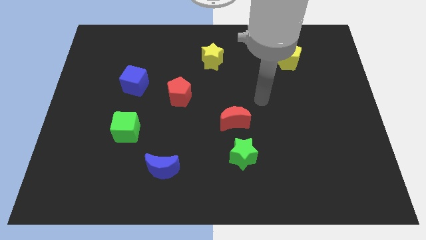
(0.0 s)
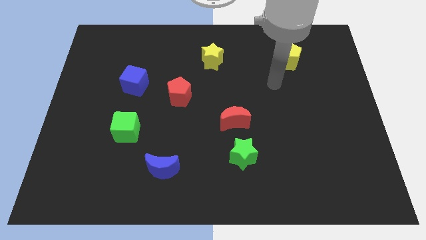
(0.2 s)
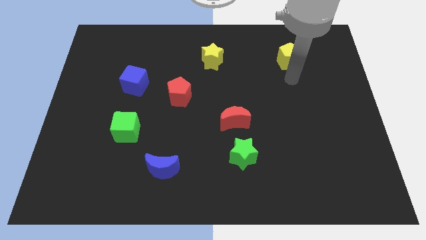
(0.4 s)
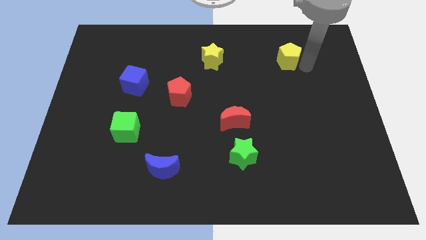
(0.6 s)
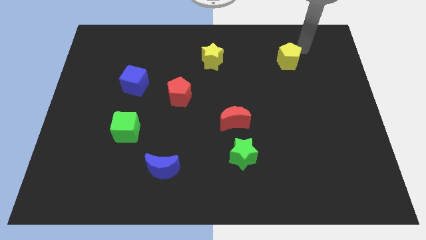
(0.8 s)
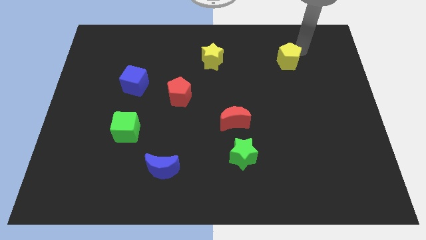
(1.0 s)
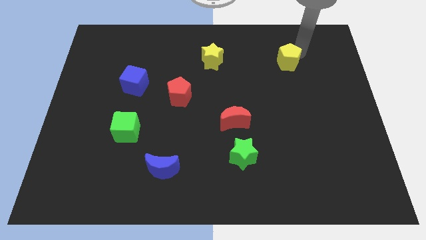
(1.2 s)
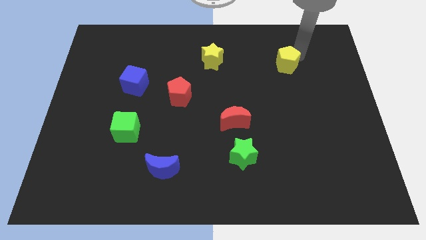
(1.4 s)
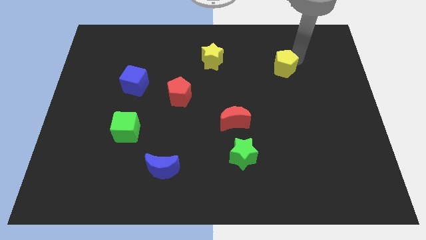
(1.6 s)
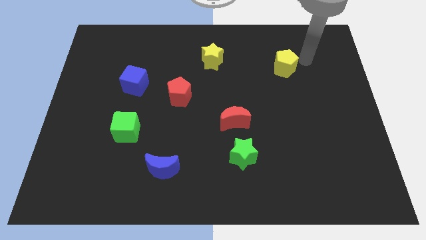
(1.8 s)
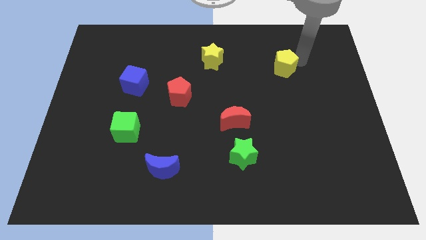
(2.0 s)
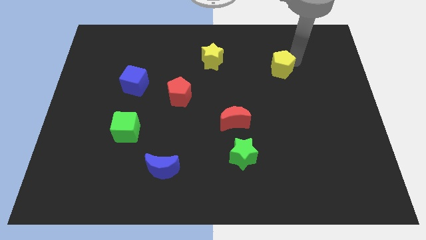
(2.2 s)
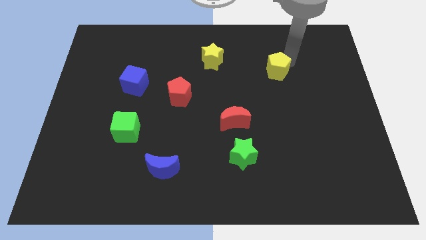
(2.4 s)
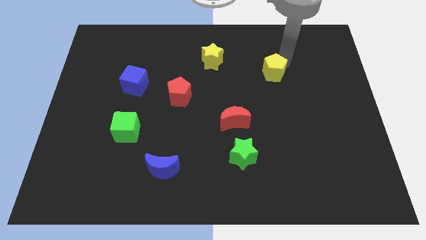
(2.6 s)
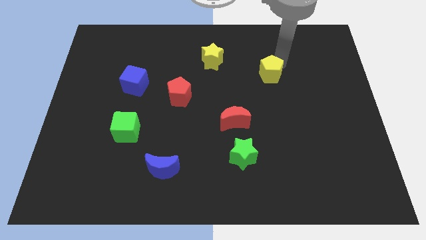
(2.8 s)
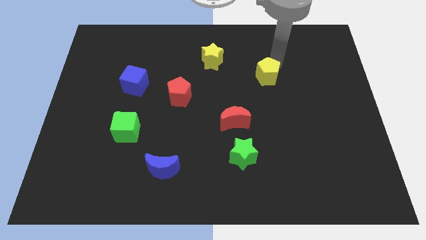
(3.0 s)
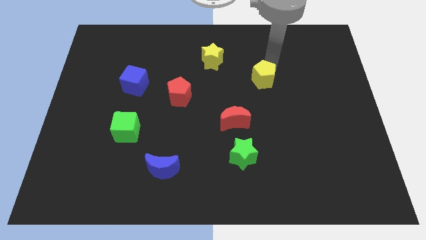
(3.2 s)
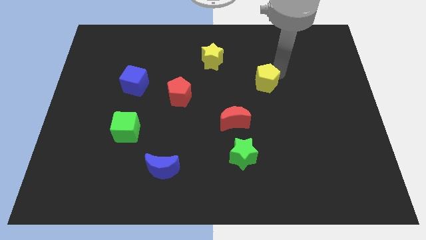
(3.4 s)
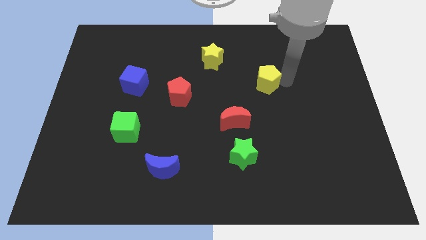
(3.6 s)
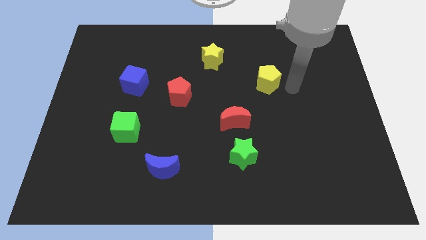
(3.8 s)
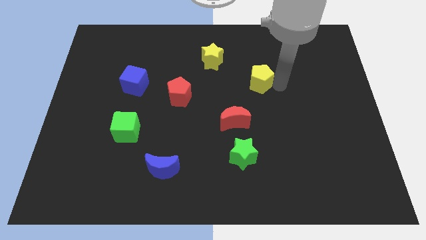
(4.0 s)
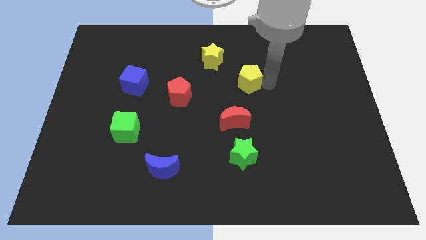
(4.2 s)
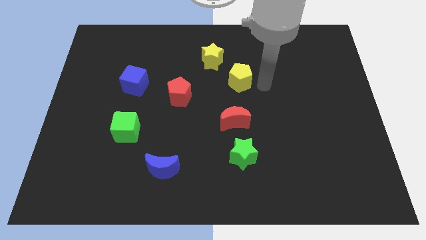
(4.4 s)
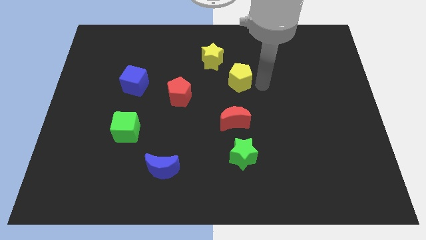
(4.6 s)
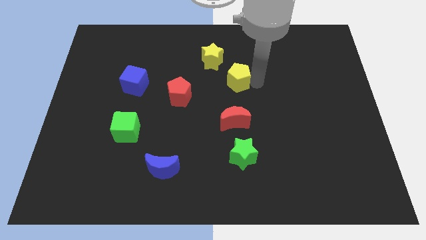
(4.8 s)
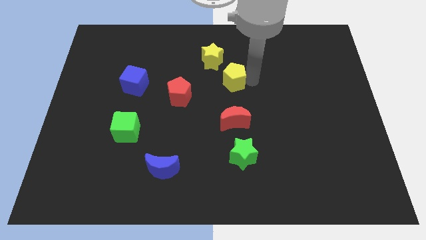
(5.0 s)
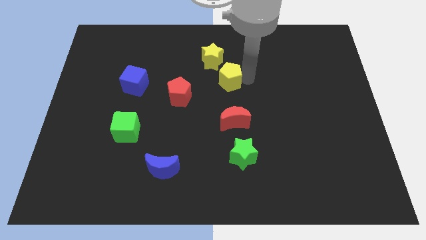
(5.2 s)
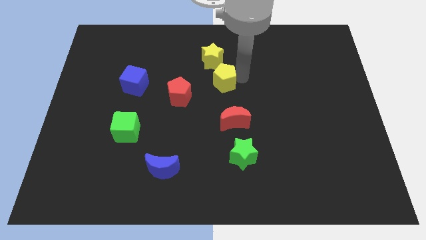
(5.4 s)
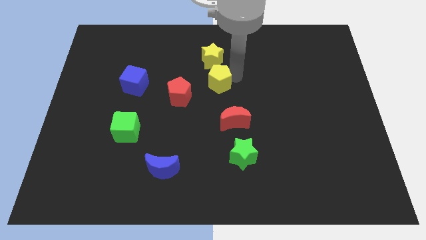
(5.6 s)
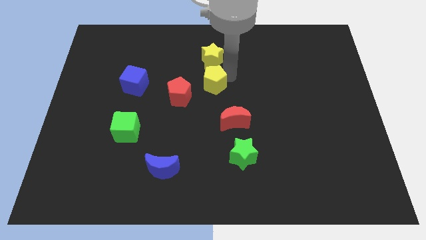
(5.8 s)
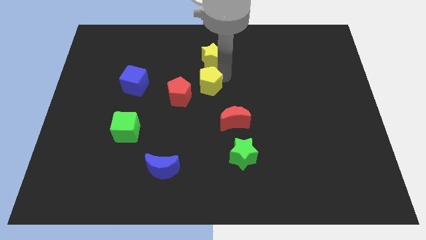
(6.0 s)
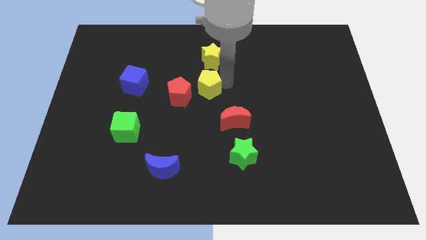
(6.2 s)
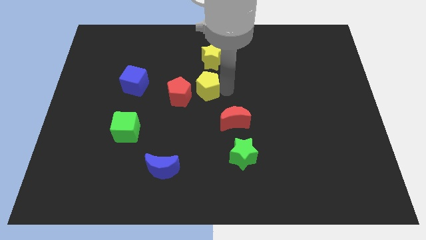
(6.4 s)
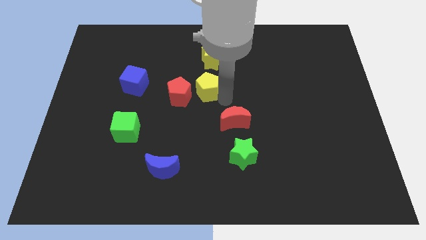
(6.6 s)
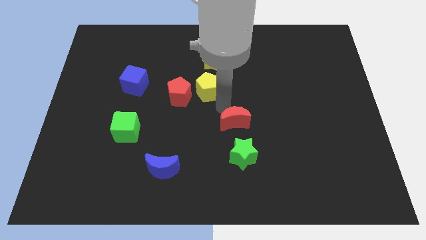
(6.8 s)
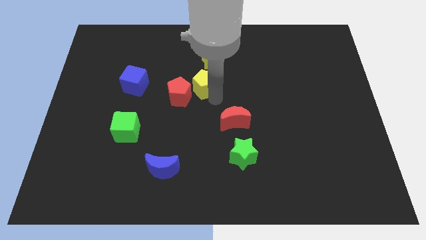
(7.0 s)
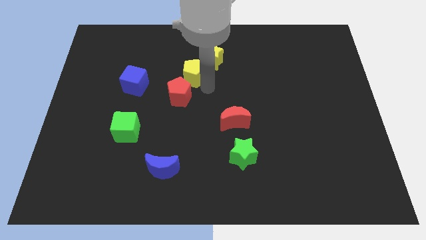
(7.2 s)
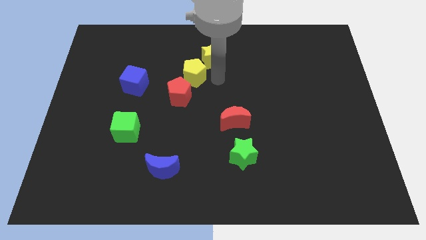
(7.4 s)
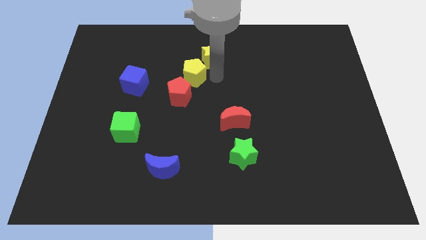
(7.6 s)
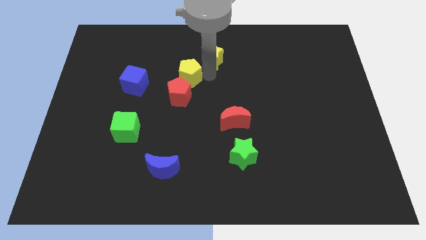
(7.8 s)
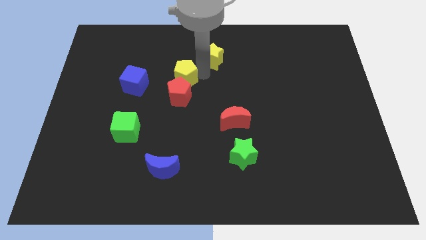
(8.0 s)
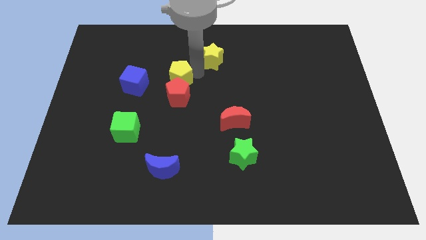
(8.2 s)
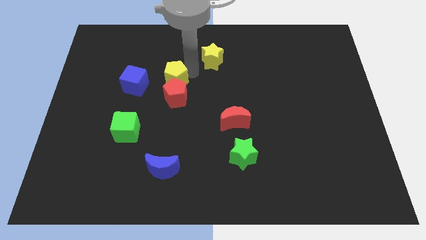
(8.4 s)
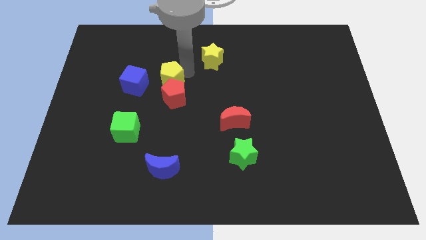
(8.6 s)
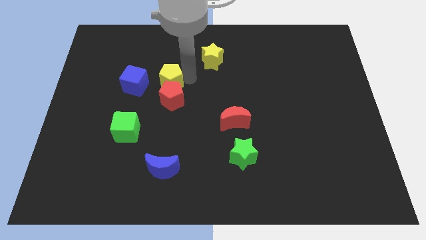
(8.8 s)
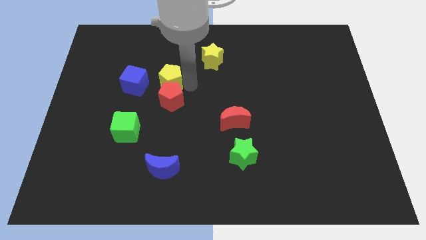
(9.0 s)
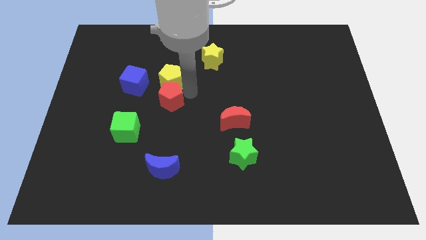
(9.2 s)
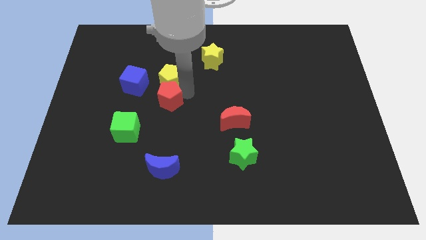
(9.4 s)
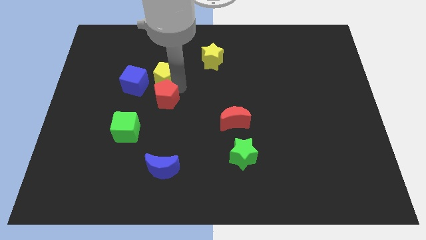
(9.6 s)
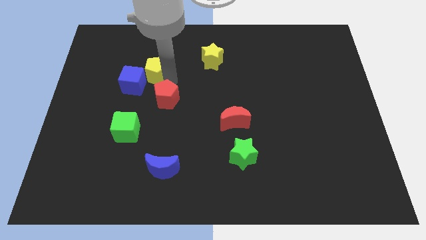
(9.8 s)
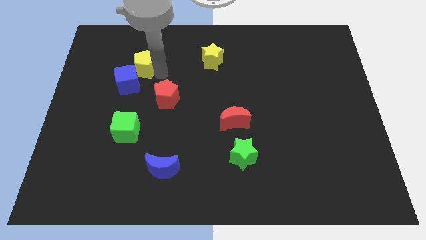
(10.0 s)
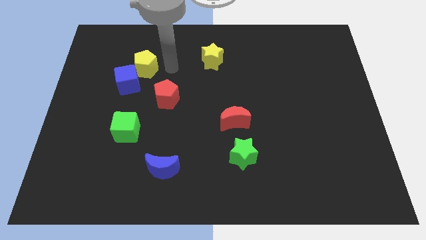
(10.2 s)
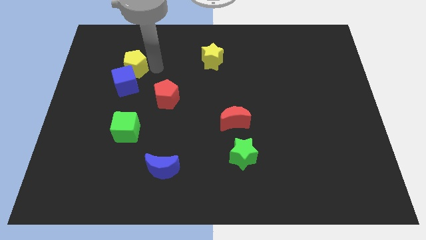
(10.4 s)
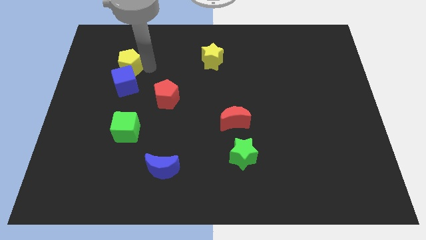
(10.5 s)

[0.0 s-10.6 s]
put the yellow pentagon to the top left side of the blue cube

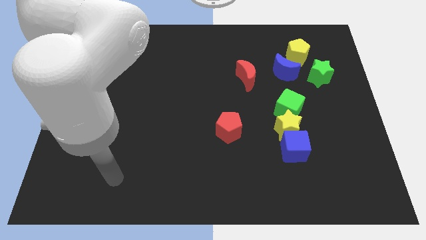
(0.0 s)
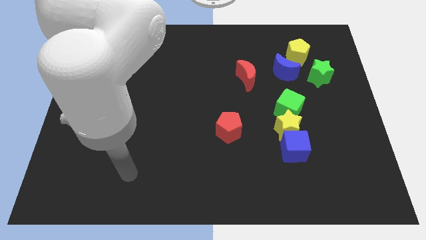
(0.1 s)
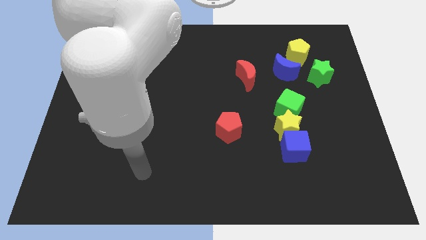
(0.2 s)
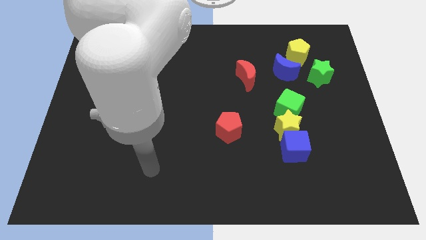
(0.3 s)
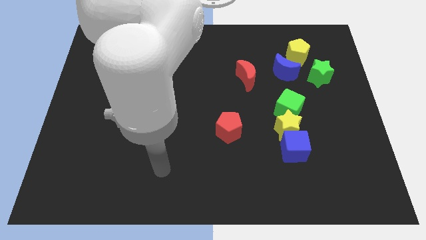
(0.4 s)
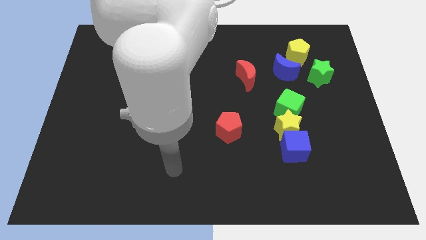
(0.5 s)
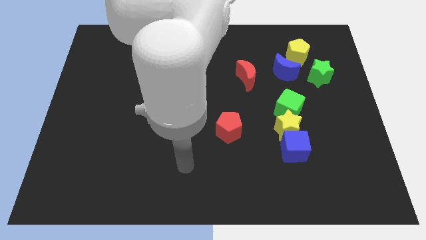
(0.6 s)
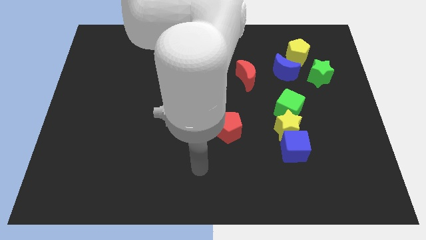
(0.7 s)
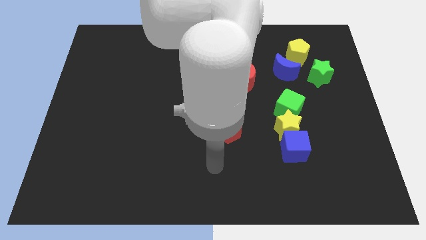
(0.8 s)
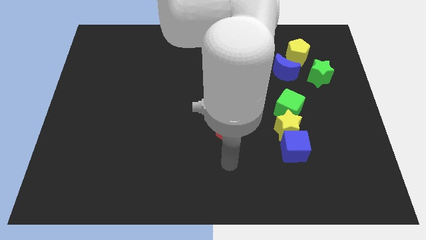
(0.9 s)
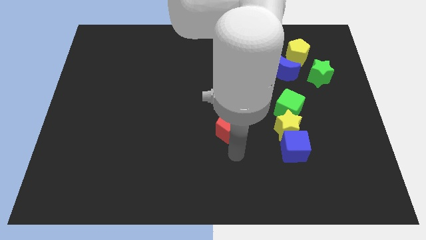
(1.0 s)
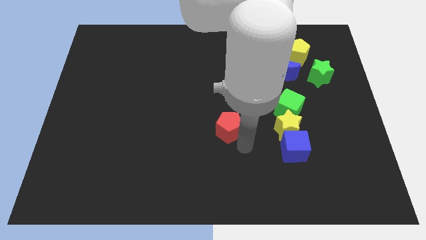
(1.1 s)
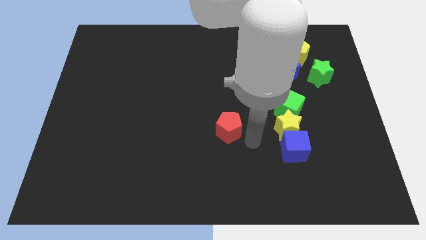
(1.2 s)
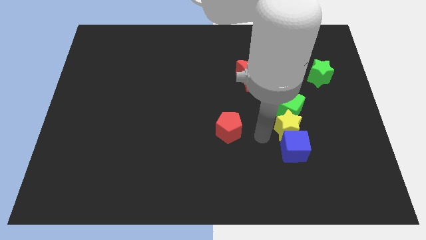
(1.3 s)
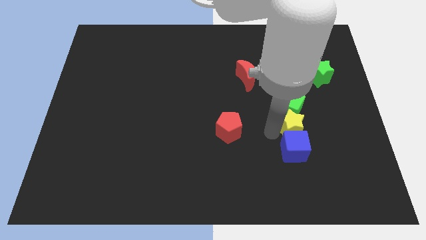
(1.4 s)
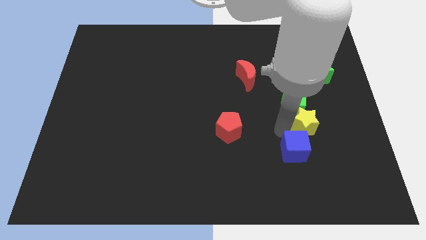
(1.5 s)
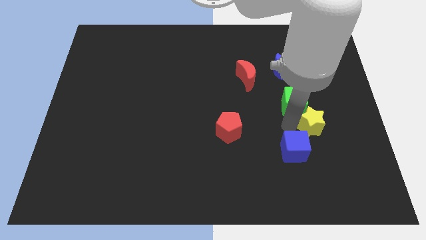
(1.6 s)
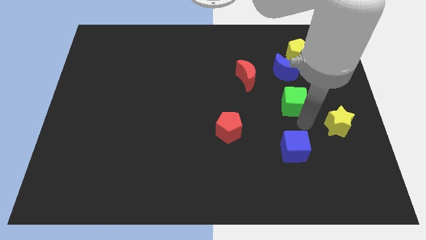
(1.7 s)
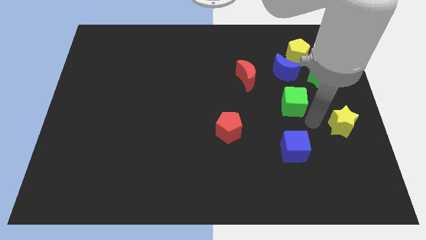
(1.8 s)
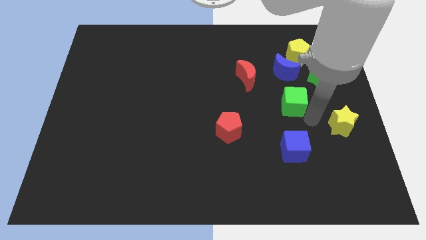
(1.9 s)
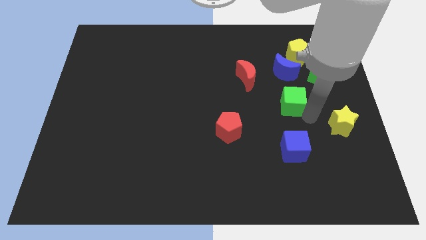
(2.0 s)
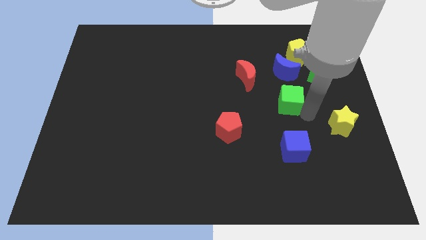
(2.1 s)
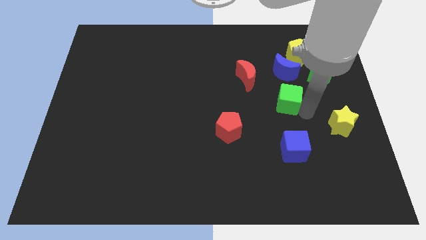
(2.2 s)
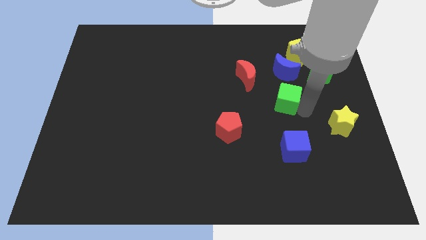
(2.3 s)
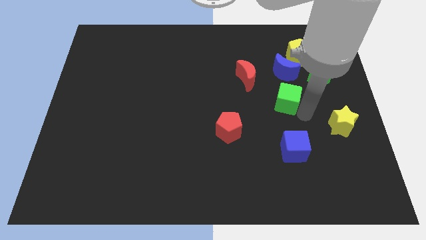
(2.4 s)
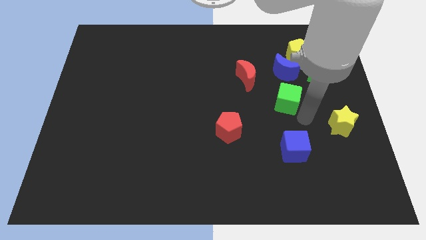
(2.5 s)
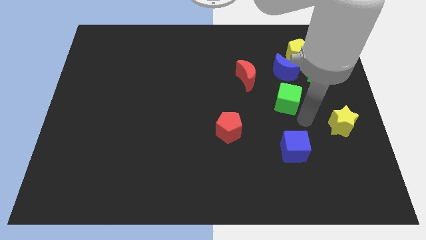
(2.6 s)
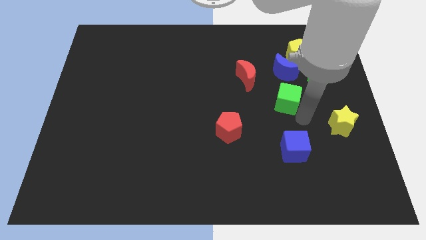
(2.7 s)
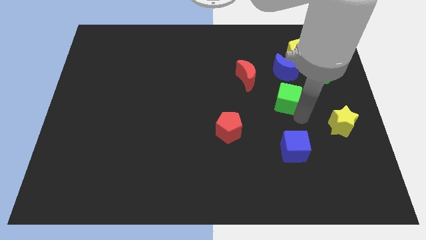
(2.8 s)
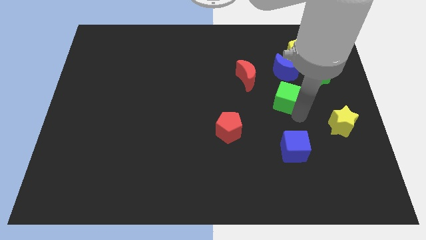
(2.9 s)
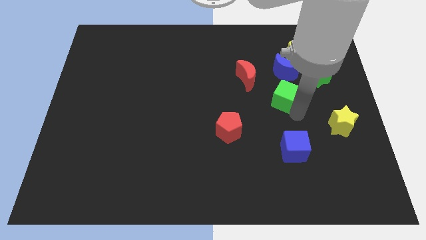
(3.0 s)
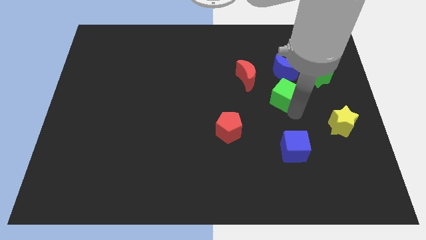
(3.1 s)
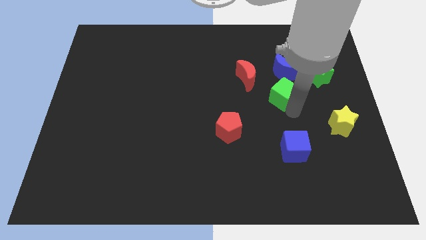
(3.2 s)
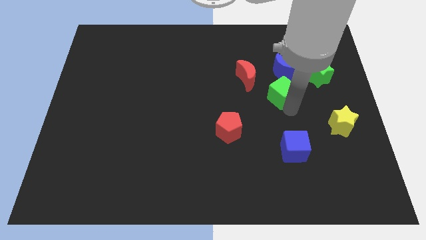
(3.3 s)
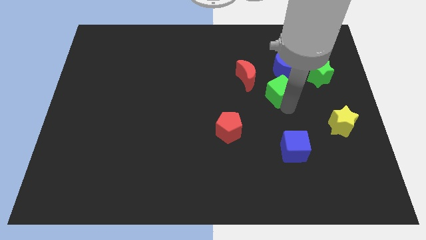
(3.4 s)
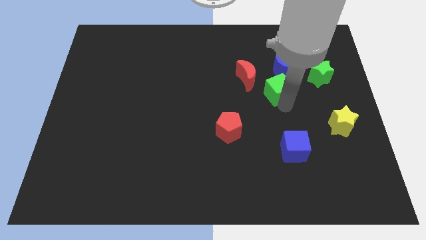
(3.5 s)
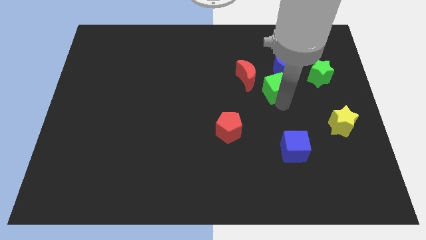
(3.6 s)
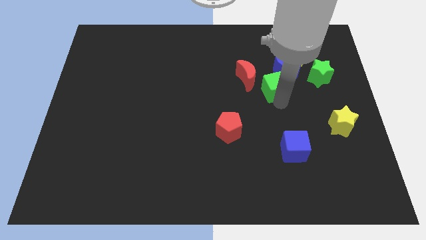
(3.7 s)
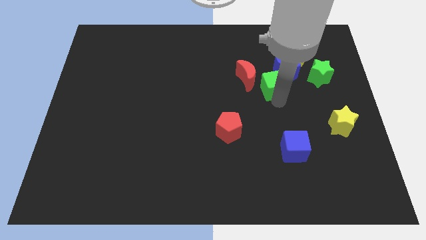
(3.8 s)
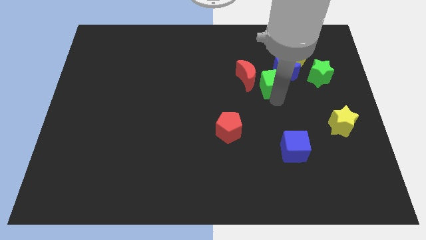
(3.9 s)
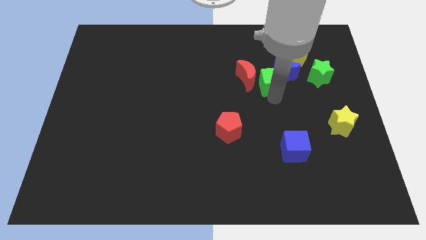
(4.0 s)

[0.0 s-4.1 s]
slide the green cube diagonally down and to the left of the yellow pentagon
